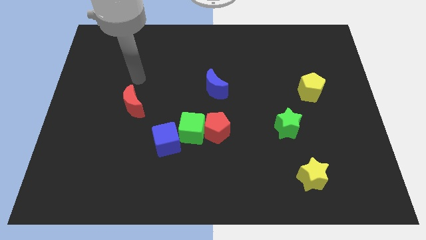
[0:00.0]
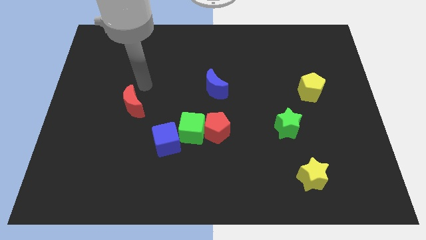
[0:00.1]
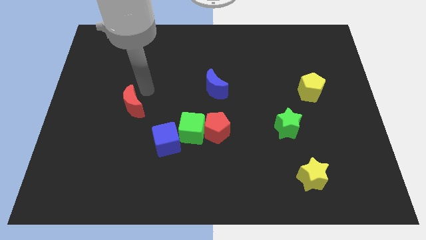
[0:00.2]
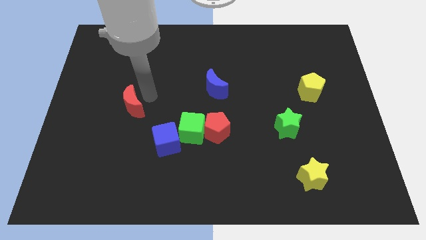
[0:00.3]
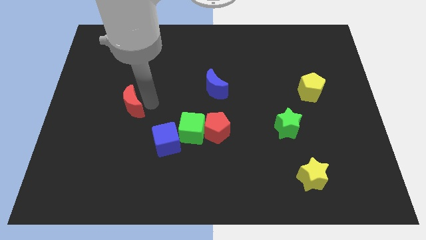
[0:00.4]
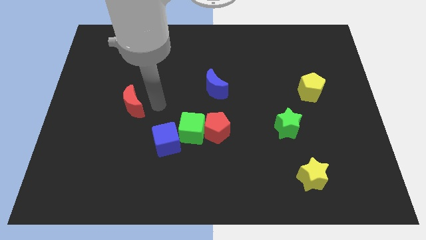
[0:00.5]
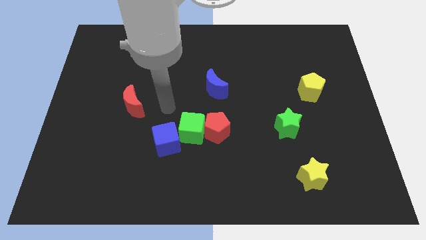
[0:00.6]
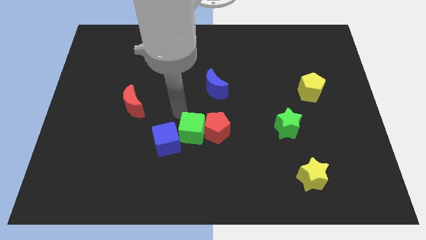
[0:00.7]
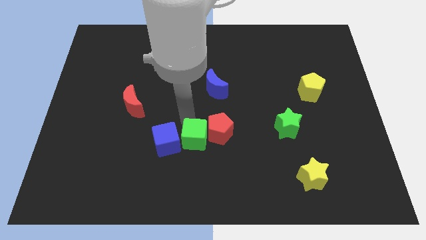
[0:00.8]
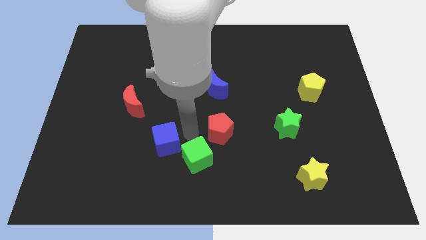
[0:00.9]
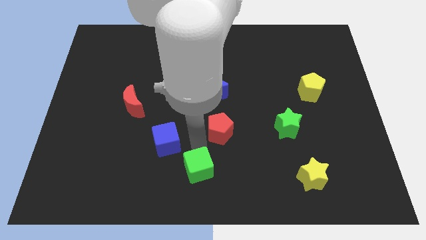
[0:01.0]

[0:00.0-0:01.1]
separate the red pentagon from the green cube

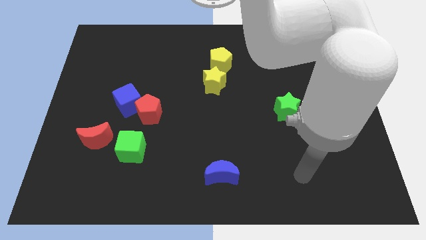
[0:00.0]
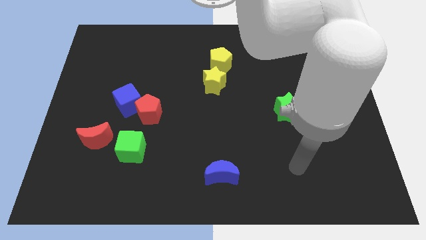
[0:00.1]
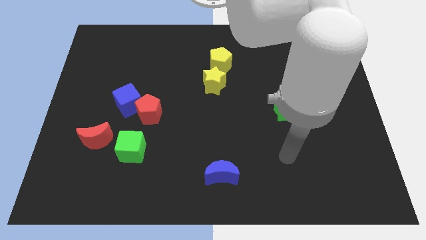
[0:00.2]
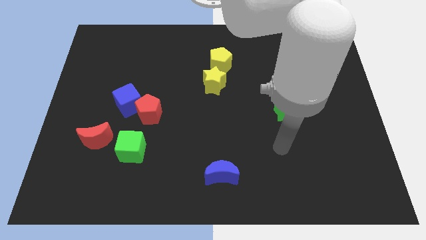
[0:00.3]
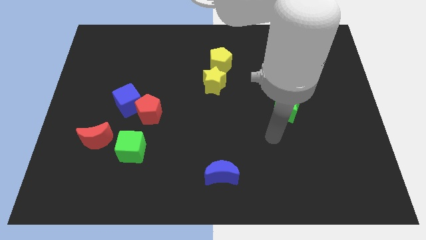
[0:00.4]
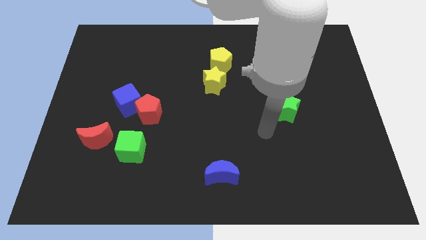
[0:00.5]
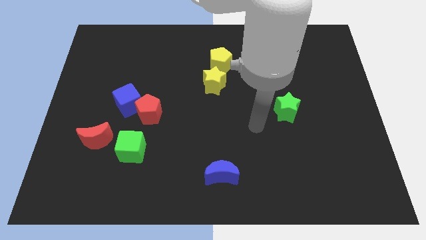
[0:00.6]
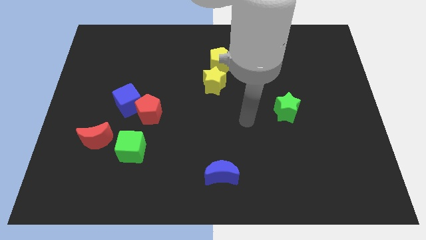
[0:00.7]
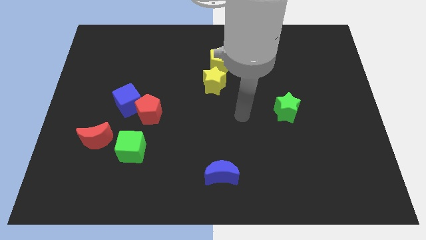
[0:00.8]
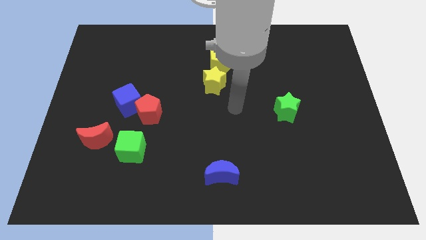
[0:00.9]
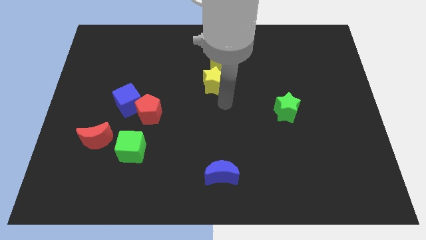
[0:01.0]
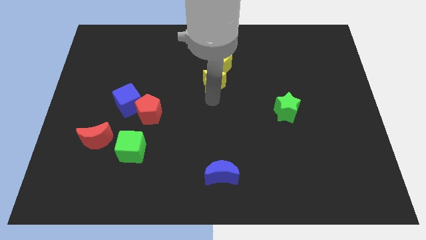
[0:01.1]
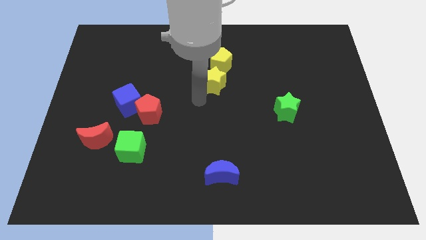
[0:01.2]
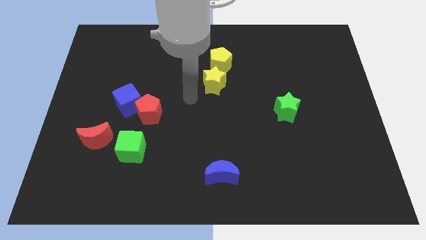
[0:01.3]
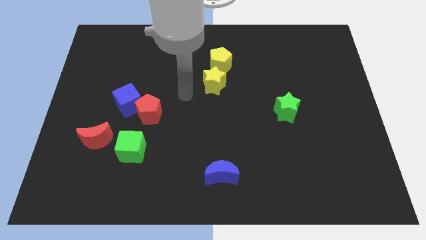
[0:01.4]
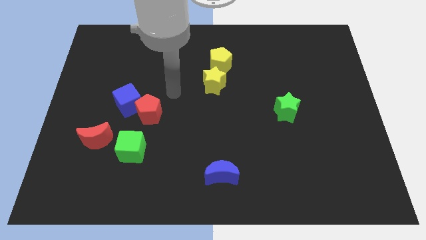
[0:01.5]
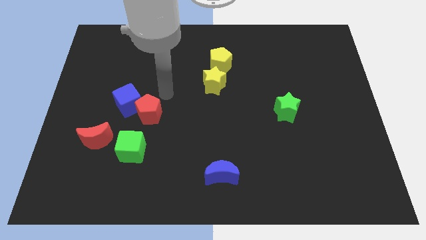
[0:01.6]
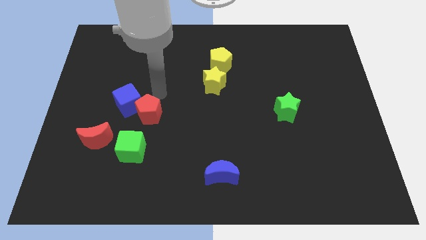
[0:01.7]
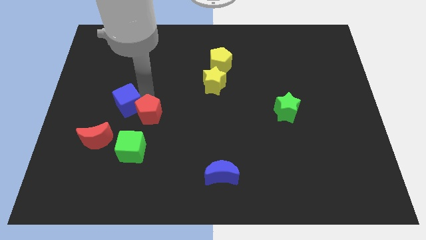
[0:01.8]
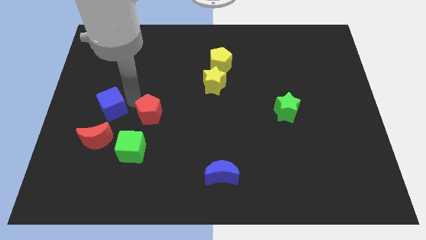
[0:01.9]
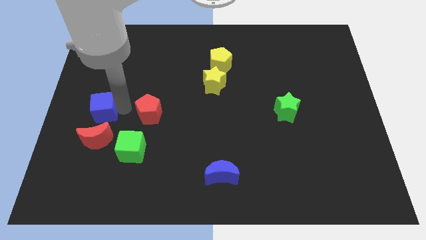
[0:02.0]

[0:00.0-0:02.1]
separate the red pentagon from the blue cube

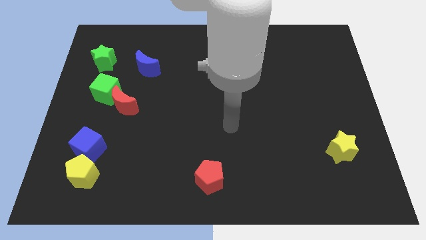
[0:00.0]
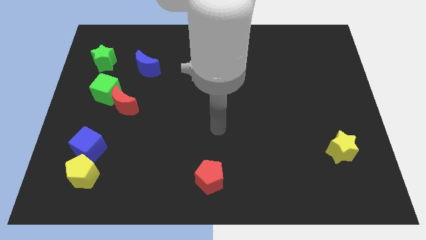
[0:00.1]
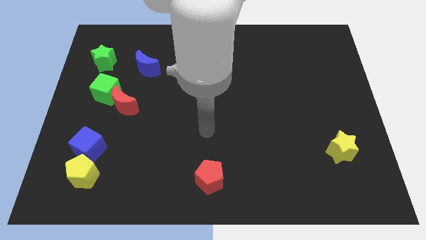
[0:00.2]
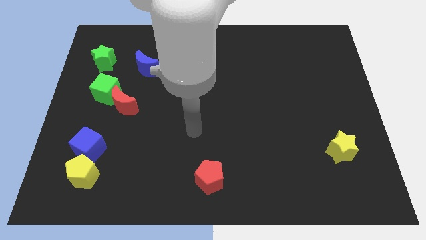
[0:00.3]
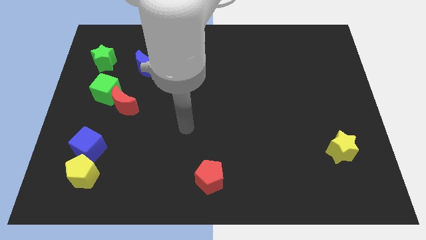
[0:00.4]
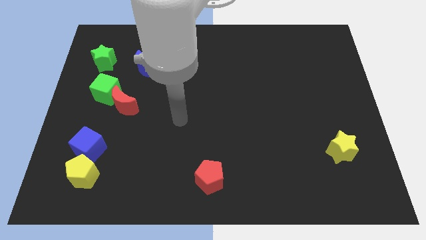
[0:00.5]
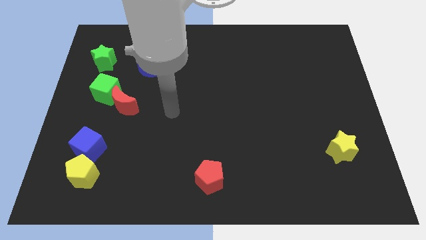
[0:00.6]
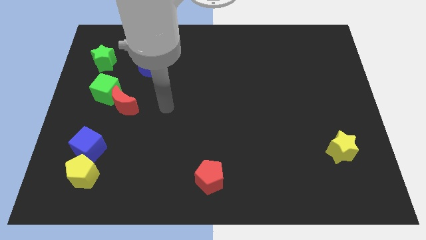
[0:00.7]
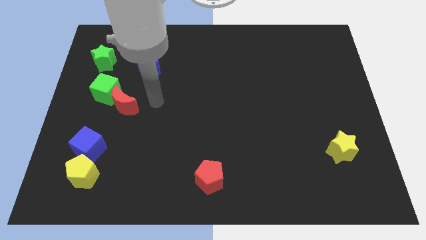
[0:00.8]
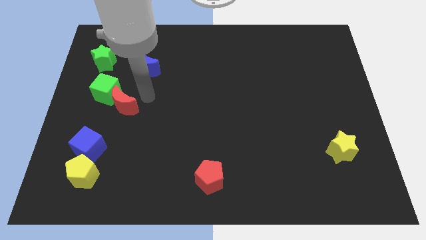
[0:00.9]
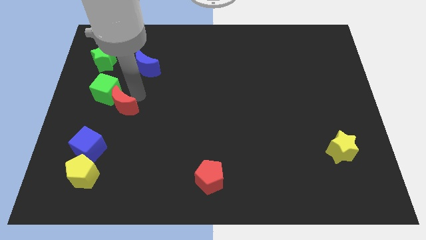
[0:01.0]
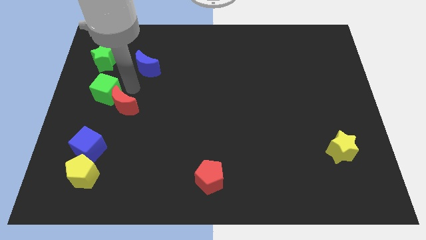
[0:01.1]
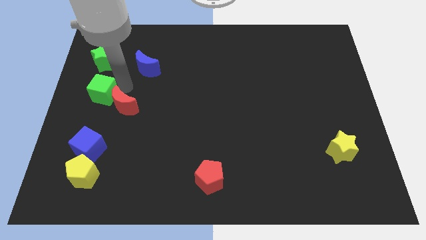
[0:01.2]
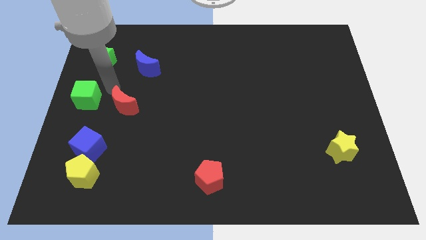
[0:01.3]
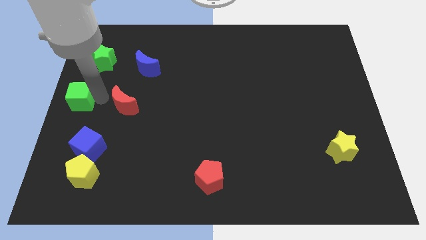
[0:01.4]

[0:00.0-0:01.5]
separate the red moon from the green cube

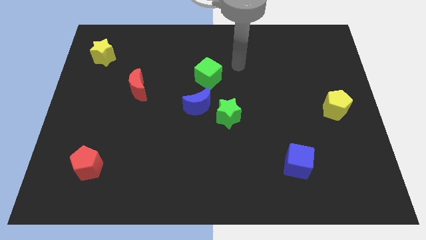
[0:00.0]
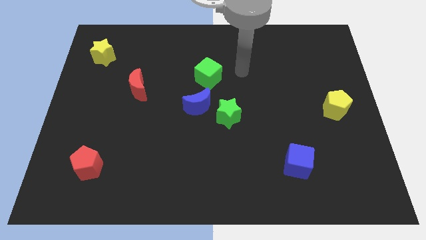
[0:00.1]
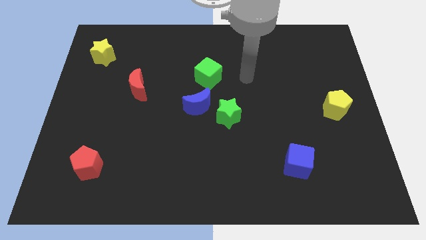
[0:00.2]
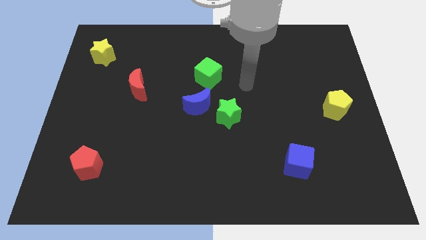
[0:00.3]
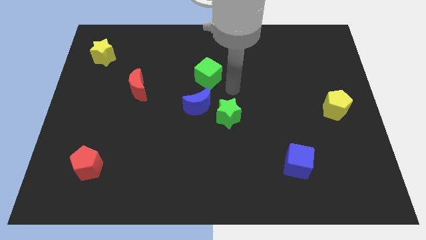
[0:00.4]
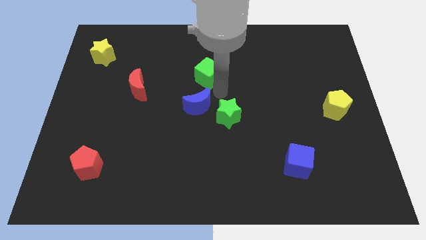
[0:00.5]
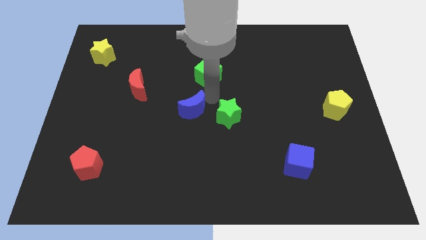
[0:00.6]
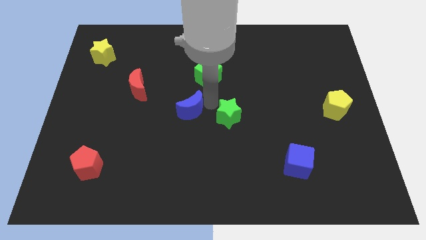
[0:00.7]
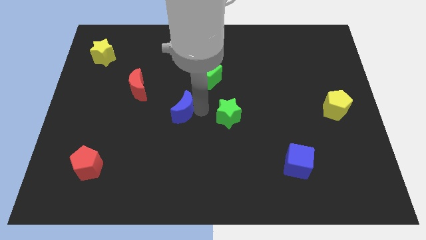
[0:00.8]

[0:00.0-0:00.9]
move the green star away from the blue moon

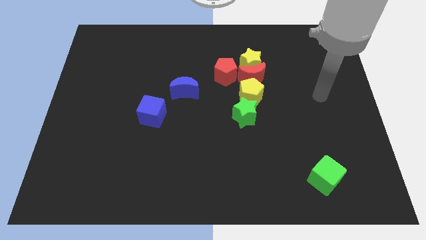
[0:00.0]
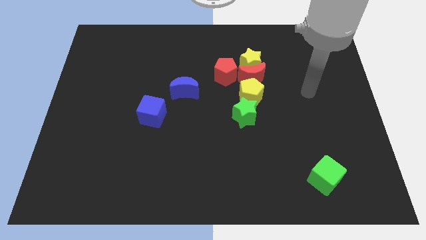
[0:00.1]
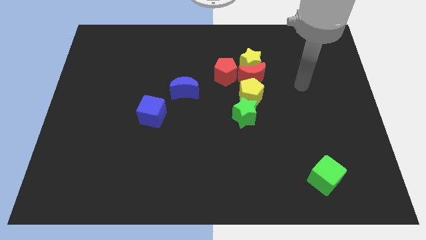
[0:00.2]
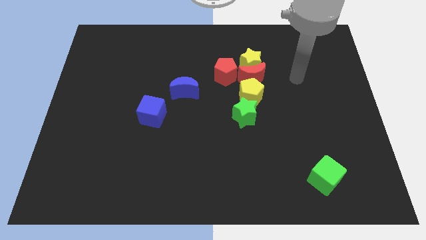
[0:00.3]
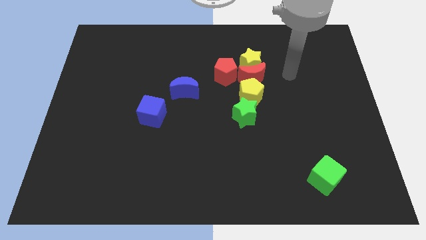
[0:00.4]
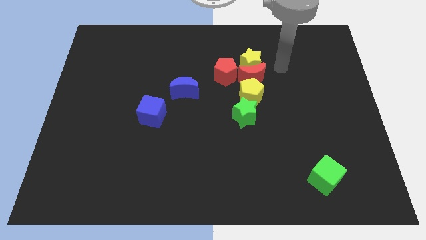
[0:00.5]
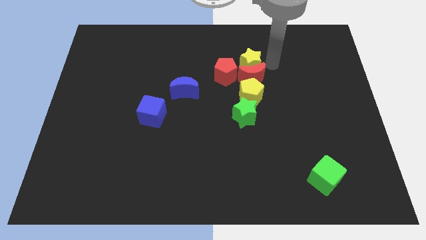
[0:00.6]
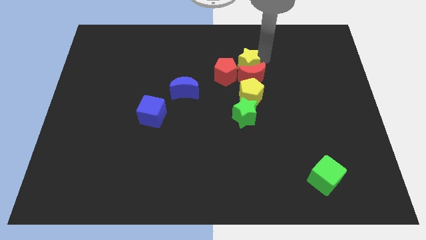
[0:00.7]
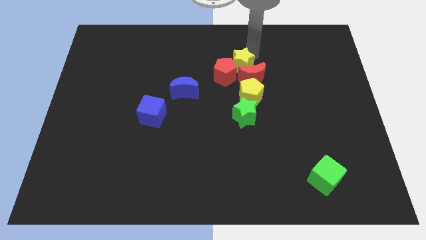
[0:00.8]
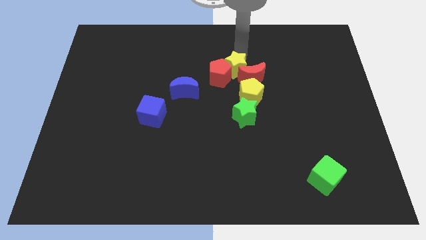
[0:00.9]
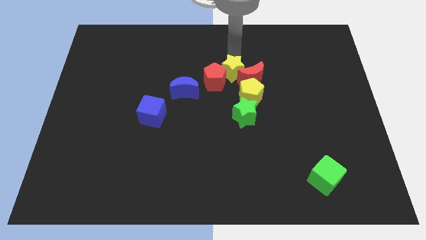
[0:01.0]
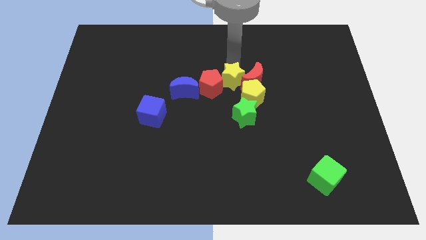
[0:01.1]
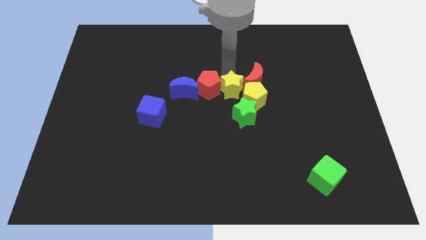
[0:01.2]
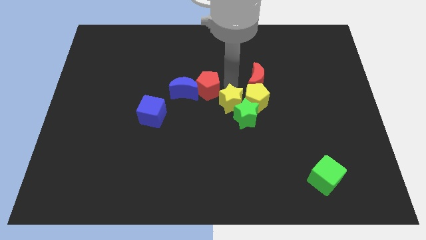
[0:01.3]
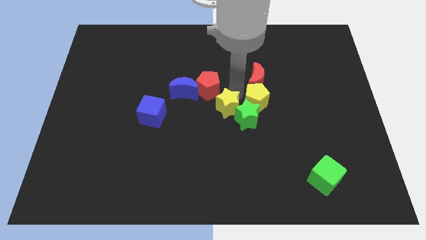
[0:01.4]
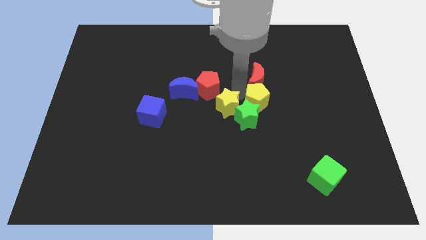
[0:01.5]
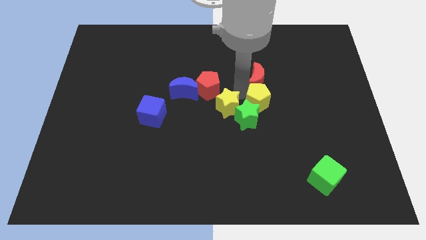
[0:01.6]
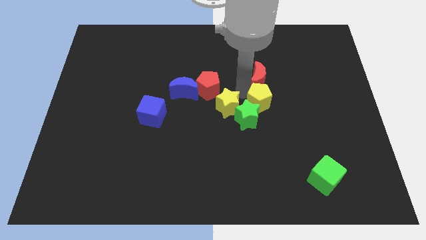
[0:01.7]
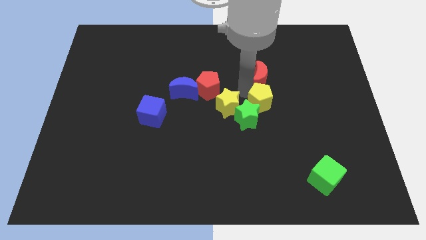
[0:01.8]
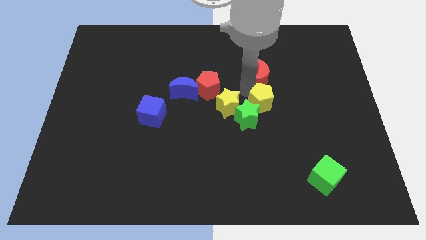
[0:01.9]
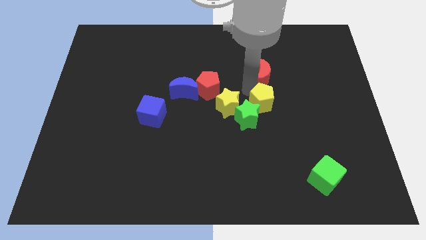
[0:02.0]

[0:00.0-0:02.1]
pull the red moon apart from the yellow star, yellow pentagon, and red pentagon

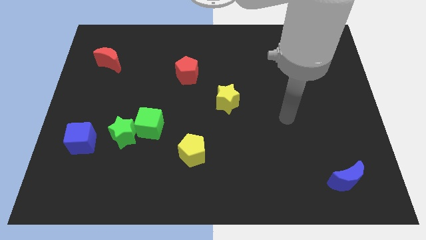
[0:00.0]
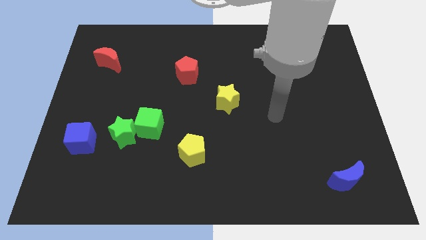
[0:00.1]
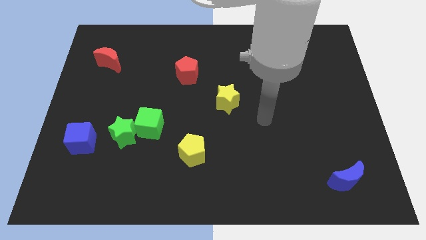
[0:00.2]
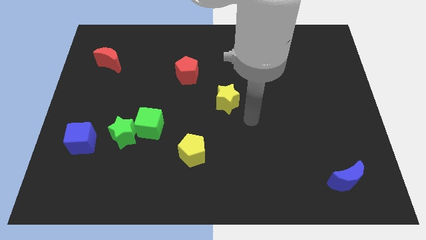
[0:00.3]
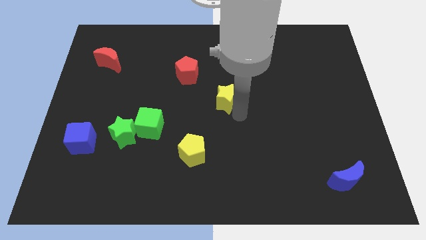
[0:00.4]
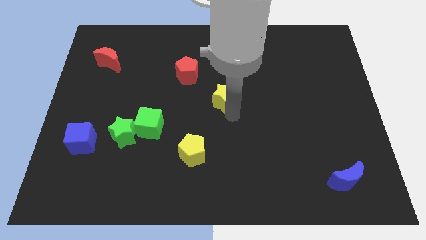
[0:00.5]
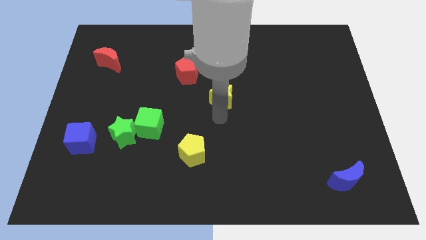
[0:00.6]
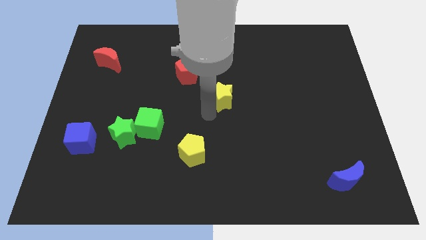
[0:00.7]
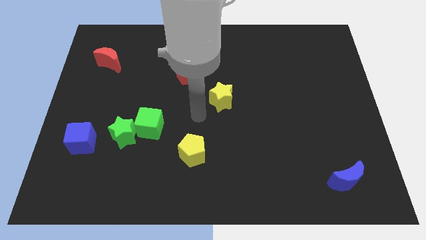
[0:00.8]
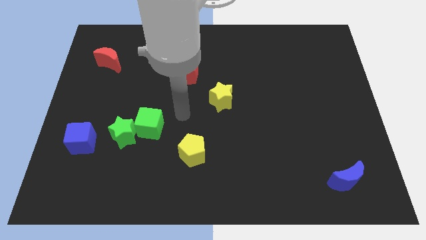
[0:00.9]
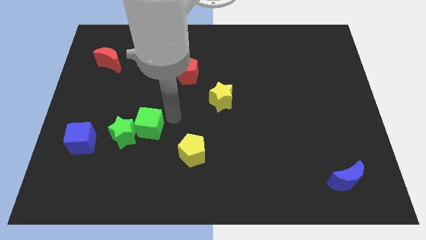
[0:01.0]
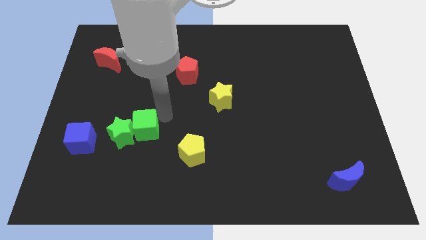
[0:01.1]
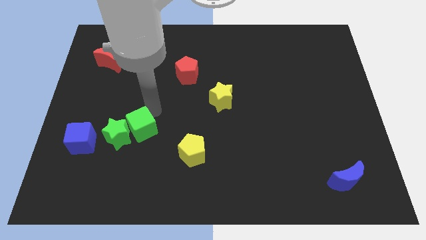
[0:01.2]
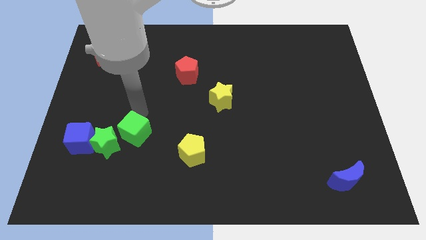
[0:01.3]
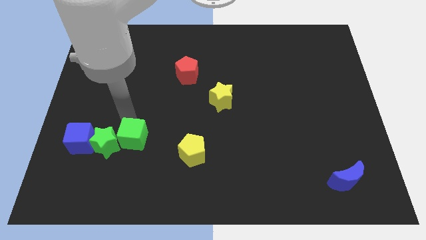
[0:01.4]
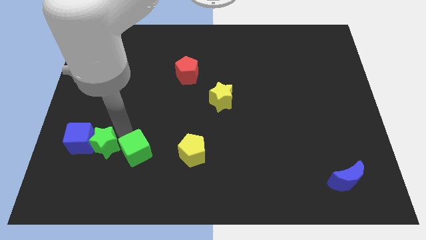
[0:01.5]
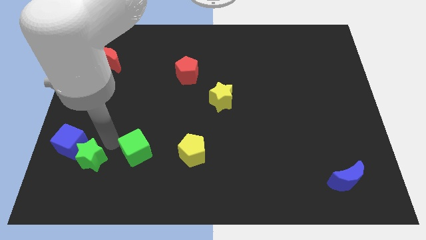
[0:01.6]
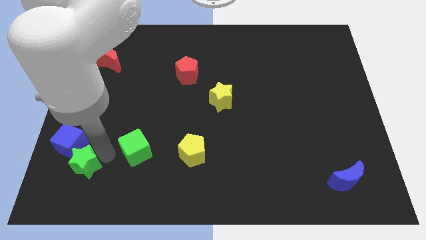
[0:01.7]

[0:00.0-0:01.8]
move the green cube away from the green star
